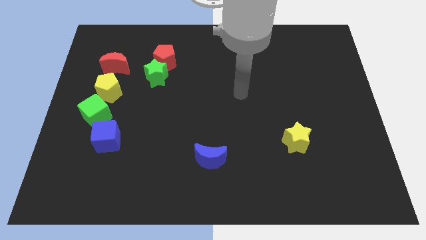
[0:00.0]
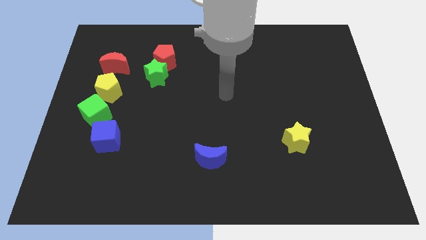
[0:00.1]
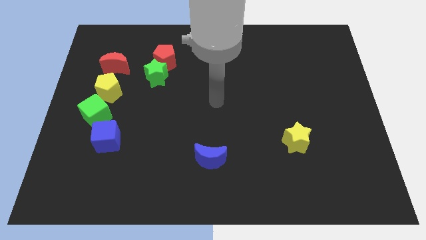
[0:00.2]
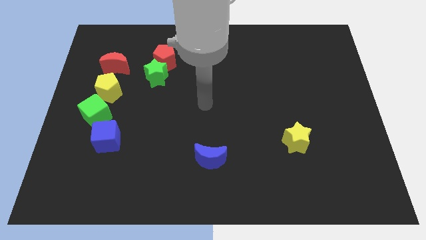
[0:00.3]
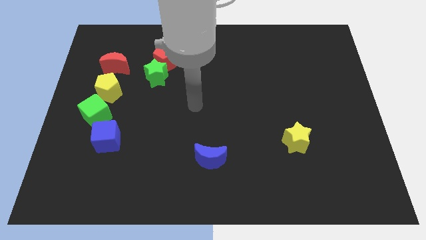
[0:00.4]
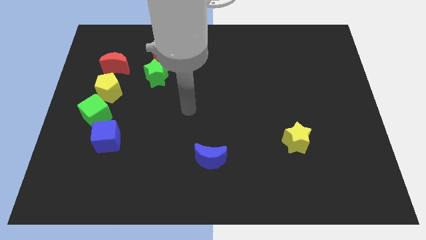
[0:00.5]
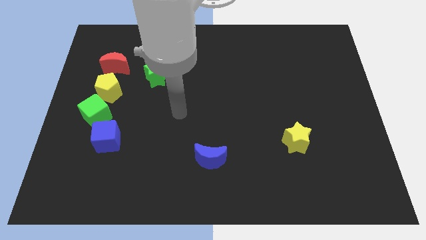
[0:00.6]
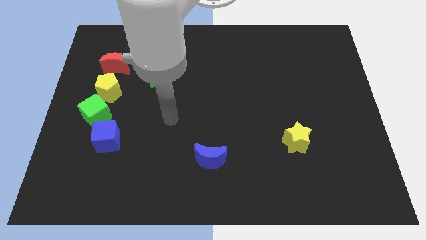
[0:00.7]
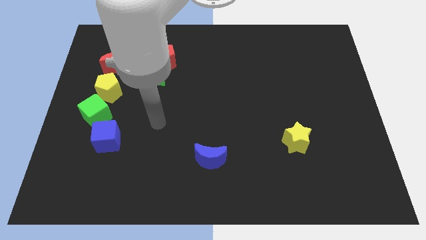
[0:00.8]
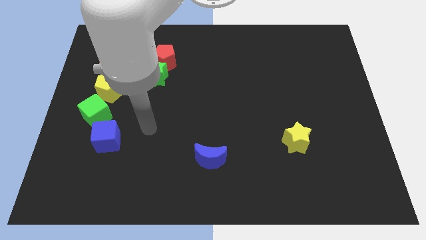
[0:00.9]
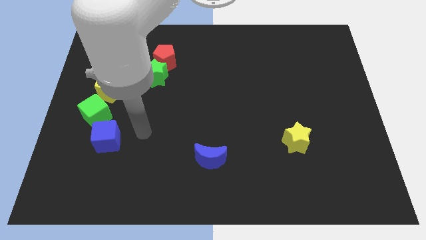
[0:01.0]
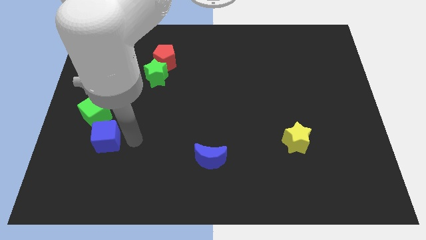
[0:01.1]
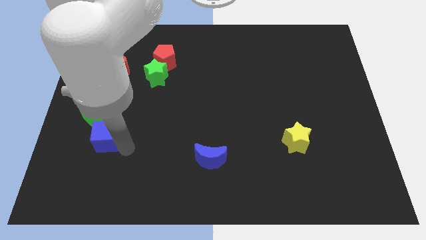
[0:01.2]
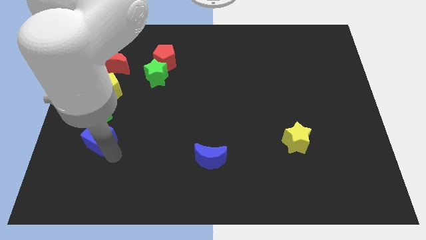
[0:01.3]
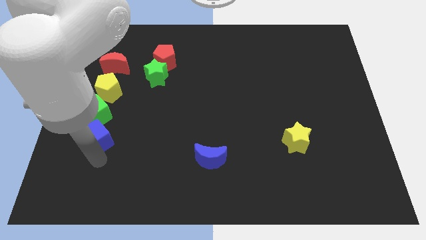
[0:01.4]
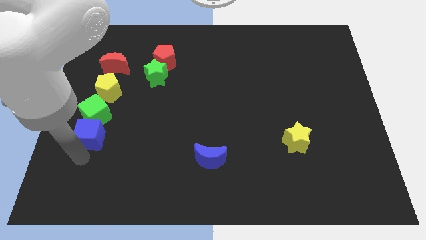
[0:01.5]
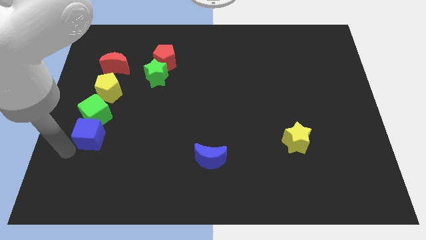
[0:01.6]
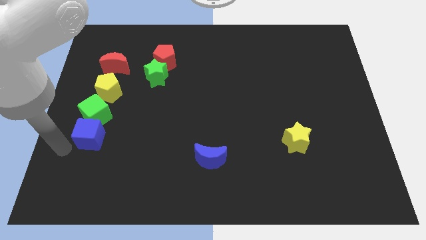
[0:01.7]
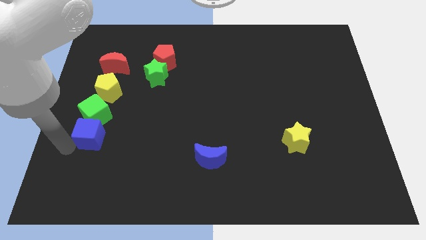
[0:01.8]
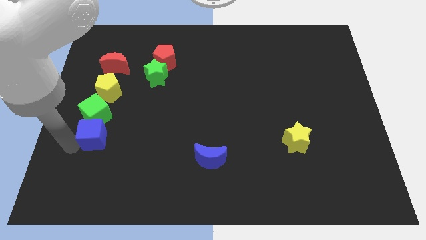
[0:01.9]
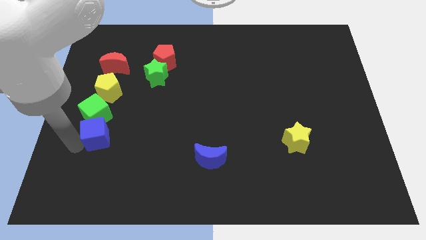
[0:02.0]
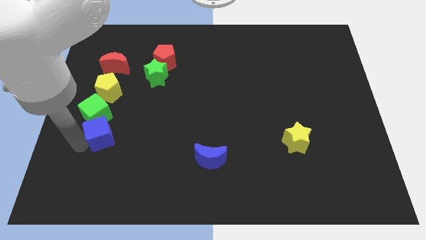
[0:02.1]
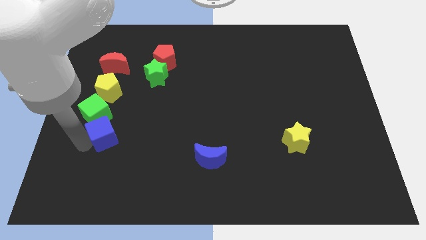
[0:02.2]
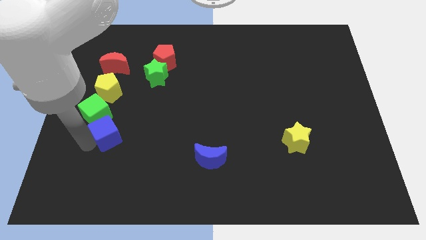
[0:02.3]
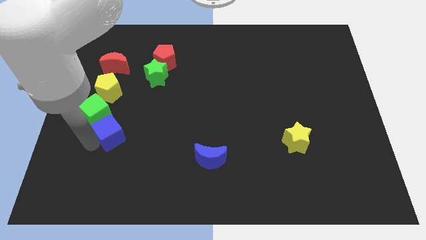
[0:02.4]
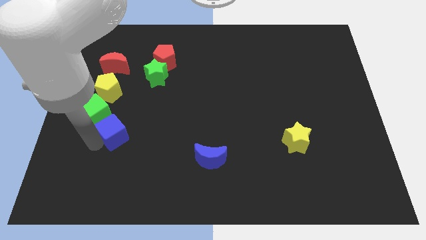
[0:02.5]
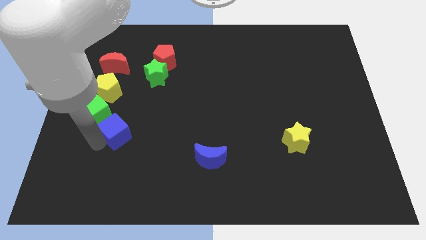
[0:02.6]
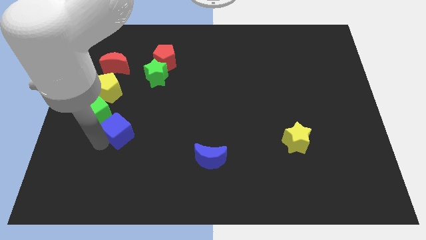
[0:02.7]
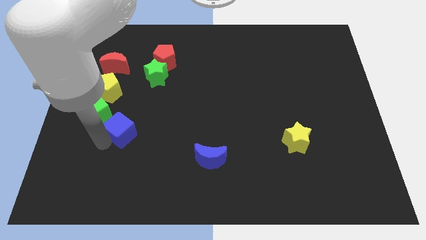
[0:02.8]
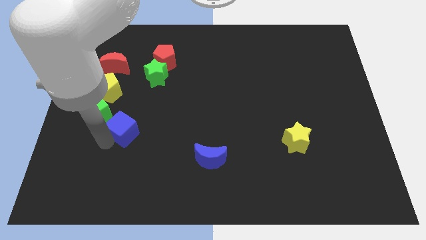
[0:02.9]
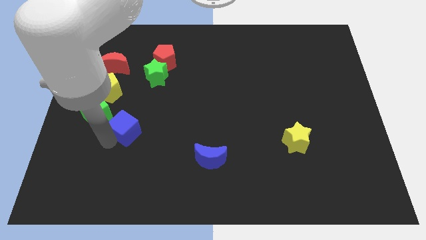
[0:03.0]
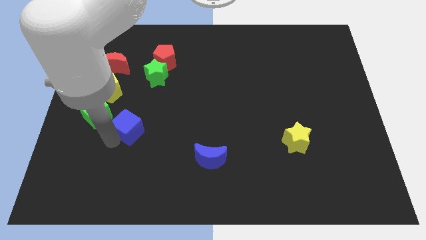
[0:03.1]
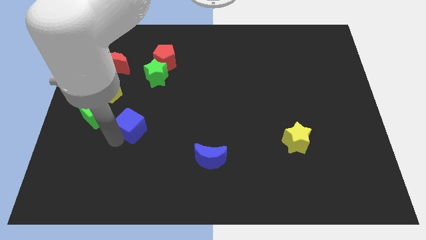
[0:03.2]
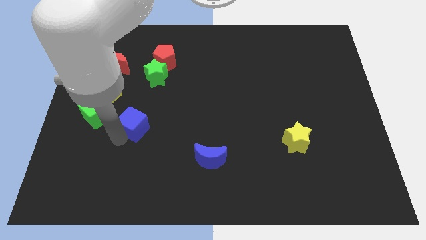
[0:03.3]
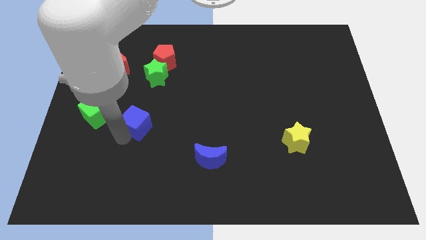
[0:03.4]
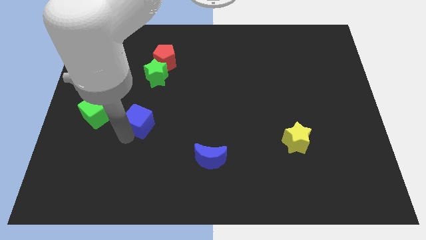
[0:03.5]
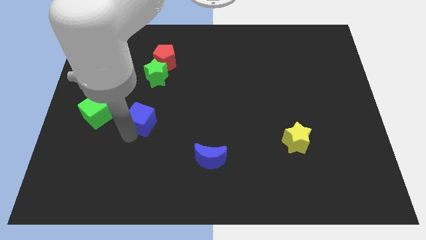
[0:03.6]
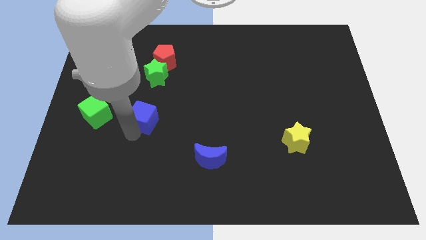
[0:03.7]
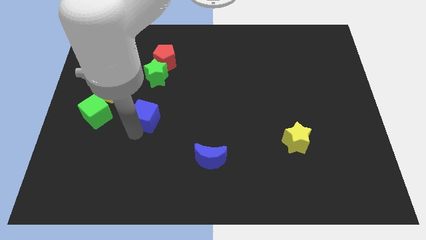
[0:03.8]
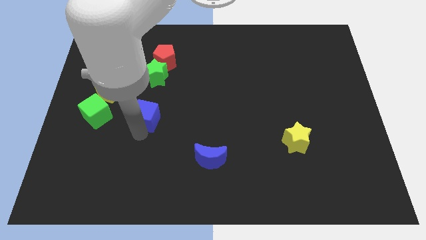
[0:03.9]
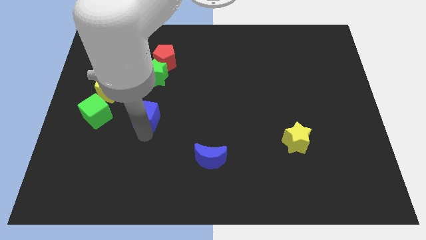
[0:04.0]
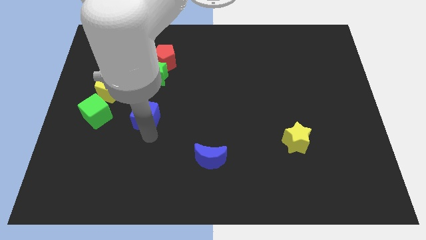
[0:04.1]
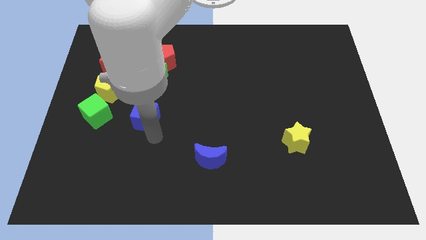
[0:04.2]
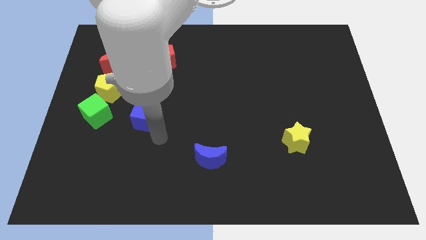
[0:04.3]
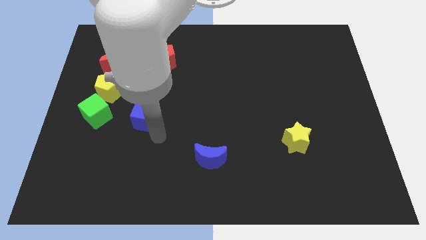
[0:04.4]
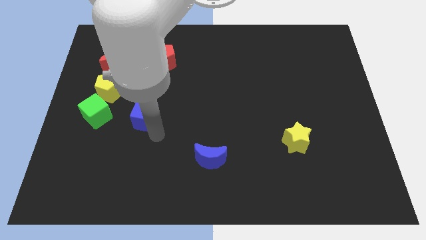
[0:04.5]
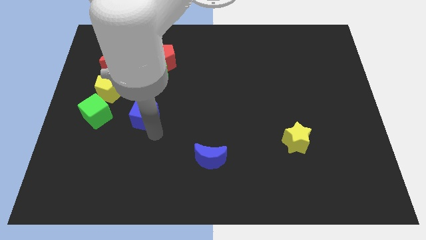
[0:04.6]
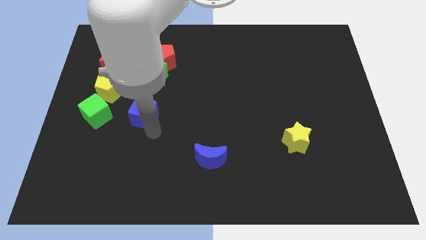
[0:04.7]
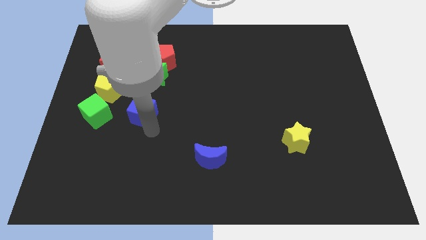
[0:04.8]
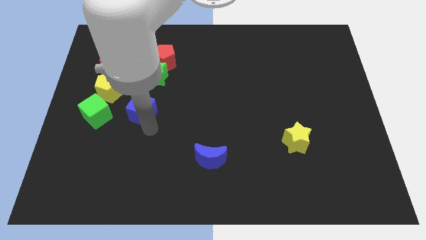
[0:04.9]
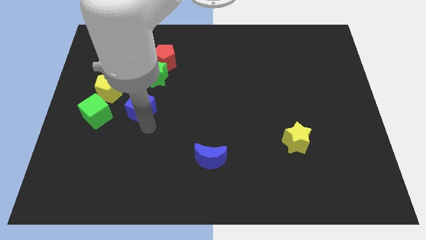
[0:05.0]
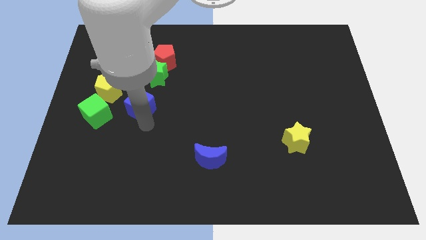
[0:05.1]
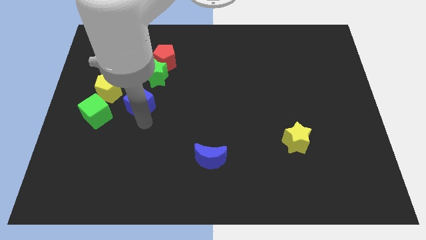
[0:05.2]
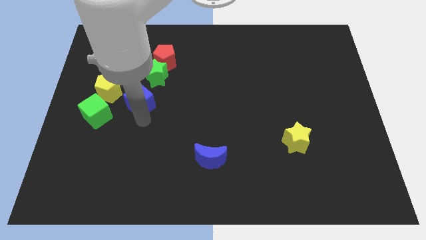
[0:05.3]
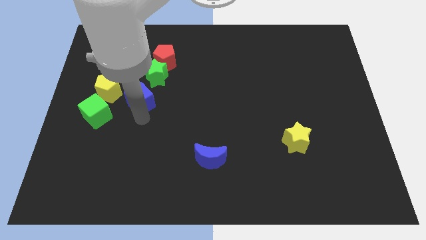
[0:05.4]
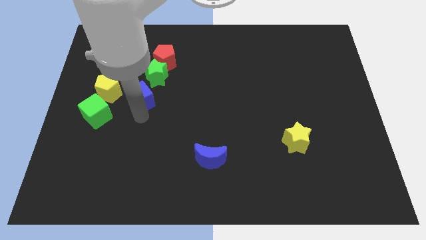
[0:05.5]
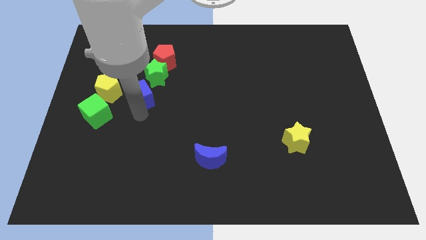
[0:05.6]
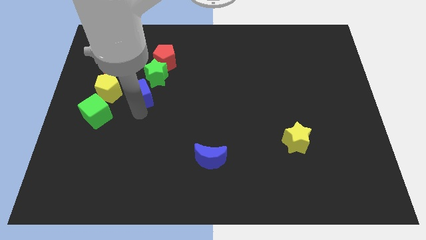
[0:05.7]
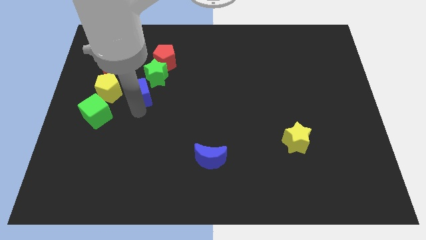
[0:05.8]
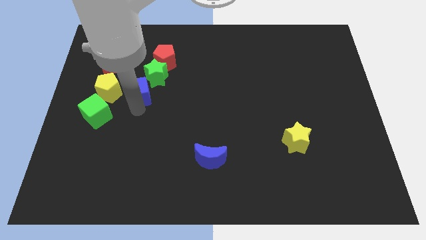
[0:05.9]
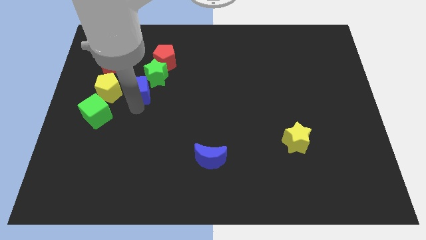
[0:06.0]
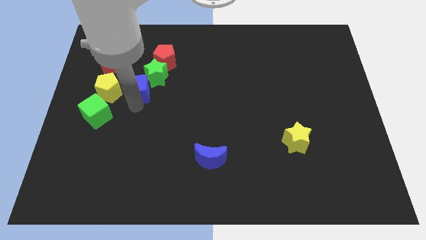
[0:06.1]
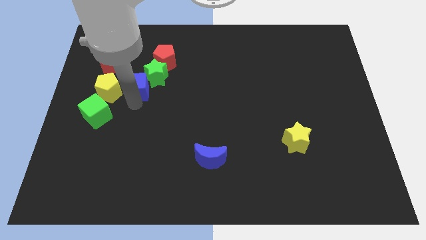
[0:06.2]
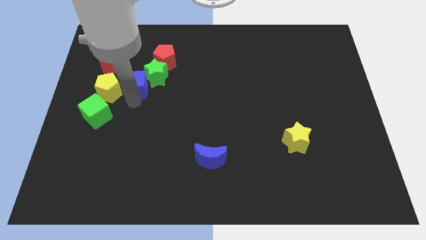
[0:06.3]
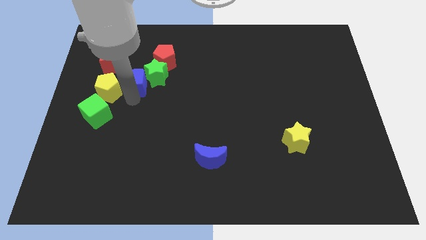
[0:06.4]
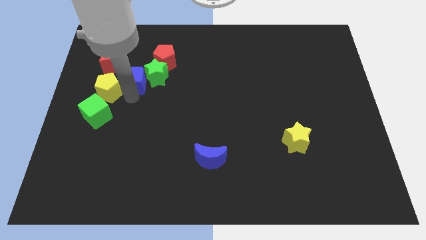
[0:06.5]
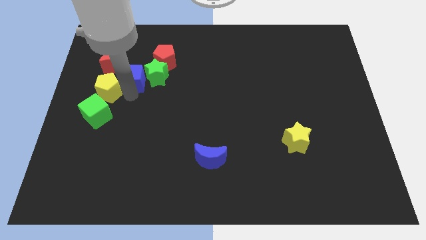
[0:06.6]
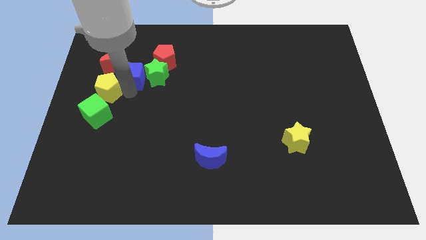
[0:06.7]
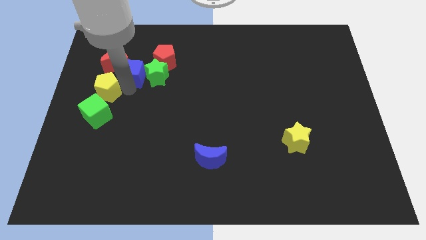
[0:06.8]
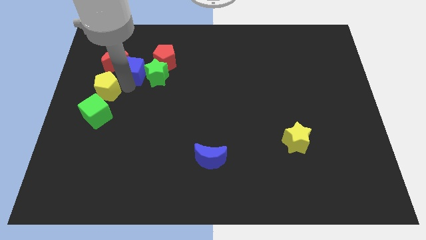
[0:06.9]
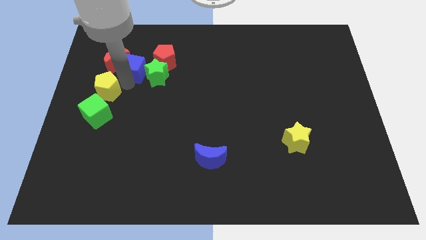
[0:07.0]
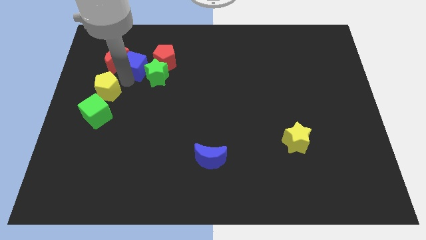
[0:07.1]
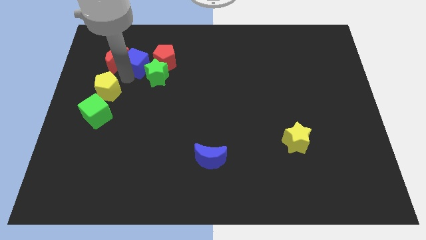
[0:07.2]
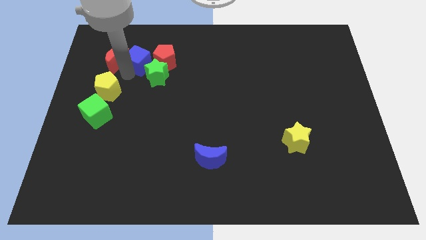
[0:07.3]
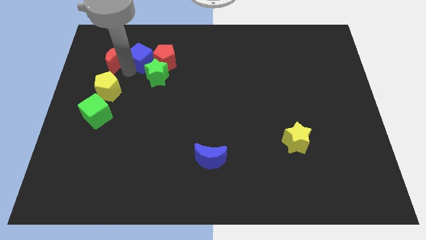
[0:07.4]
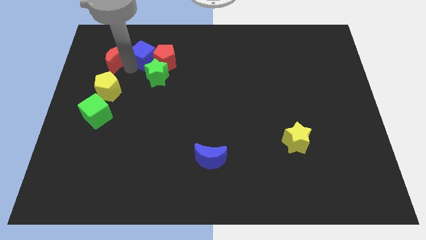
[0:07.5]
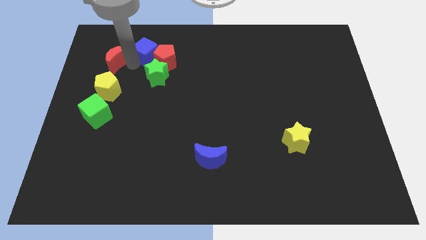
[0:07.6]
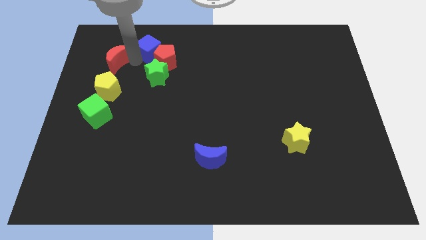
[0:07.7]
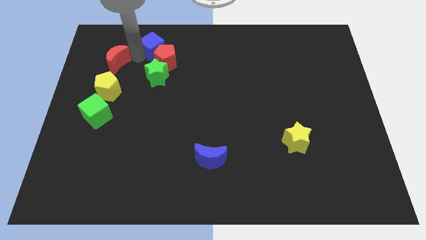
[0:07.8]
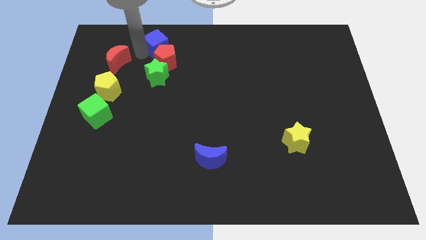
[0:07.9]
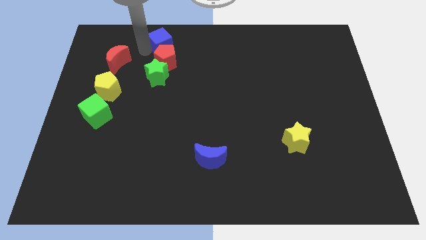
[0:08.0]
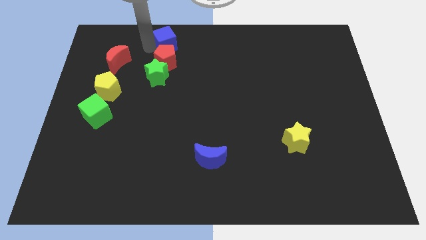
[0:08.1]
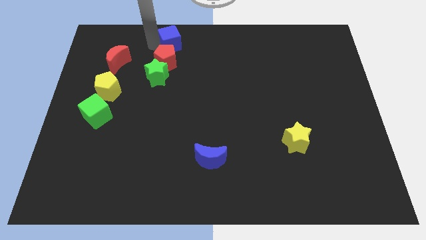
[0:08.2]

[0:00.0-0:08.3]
put the blue cube to the towards your base
